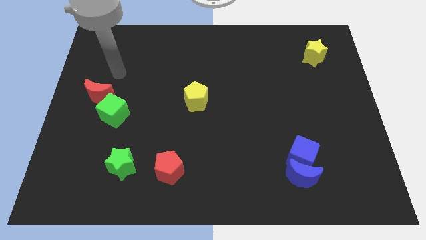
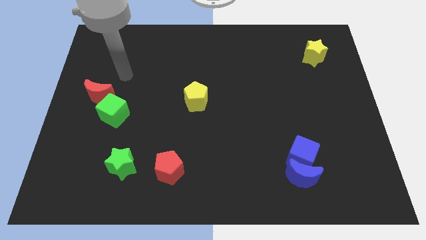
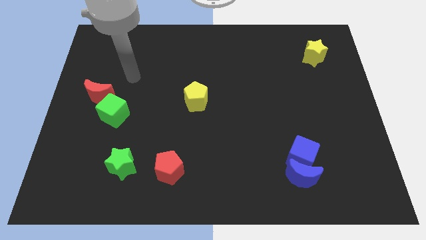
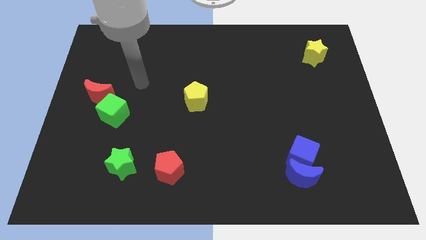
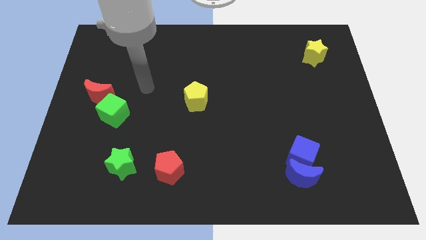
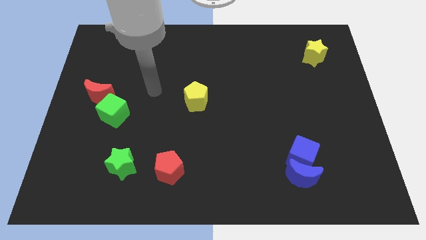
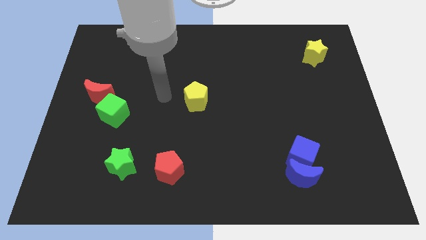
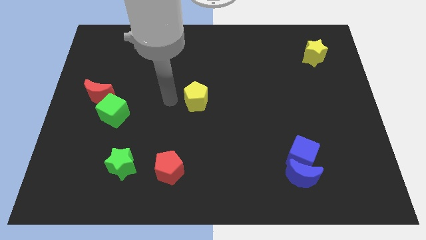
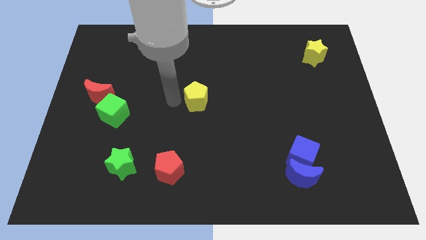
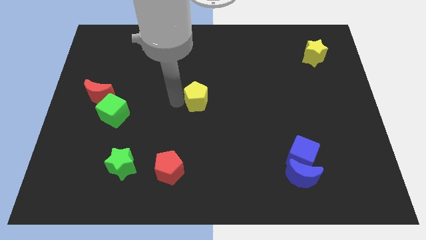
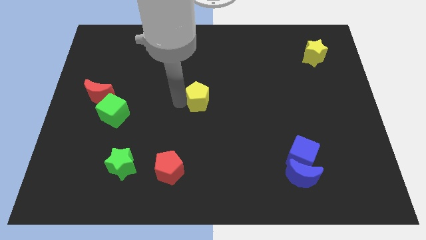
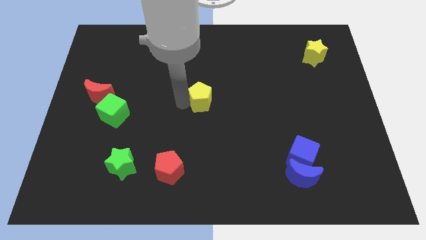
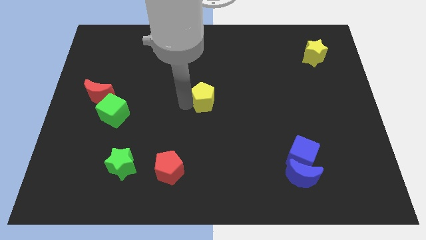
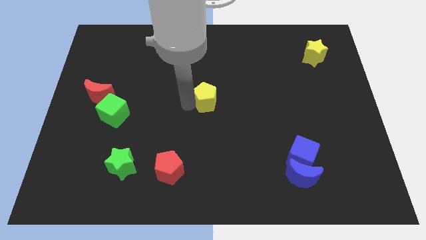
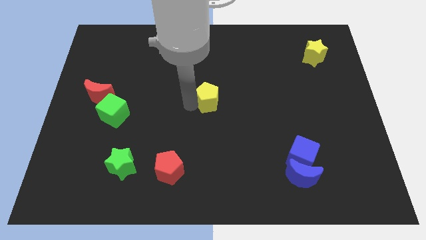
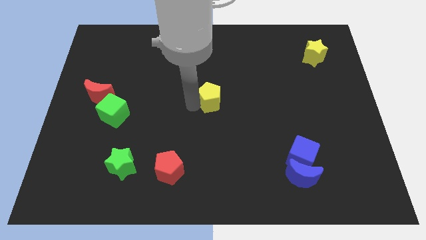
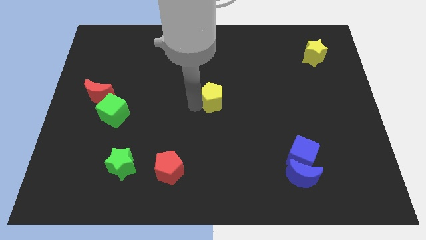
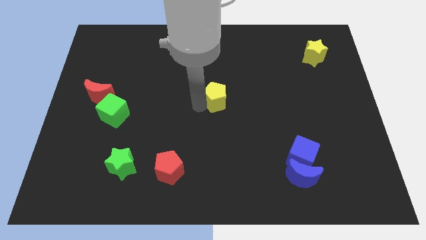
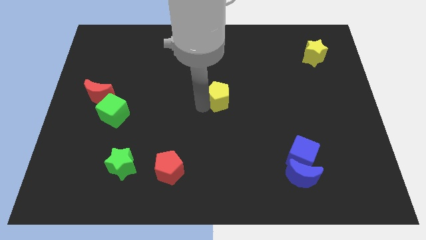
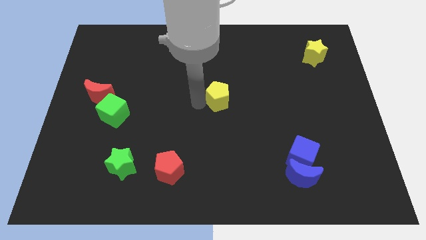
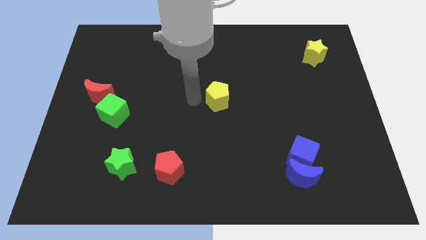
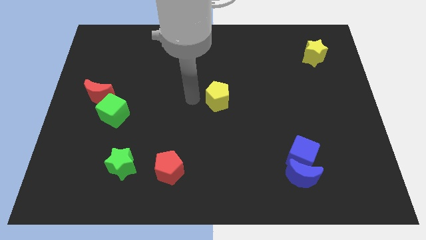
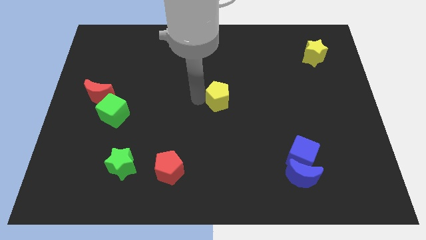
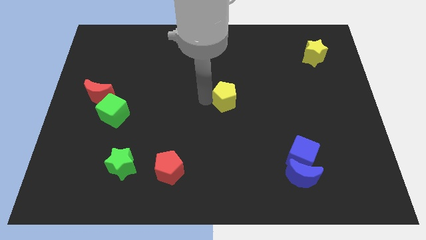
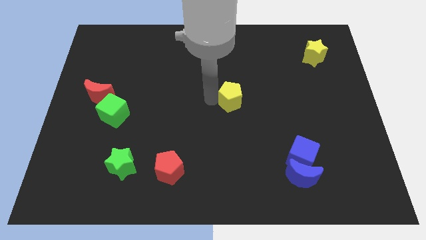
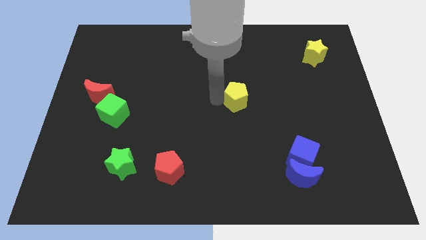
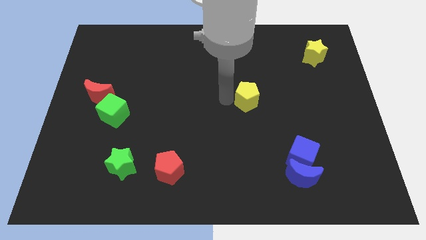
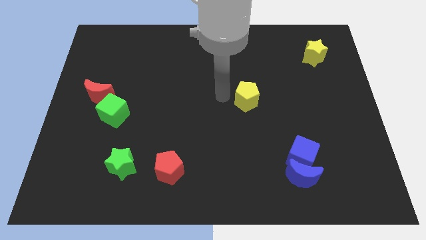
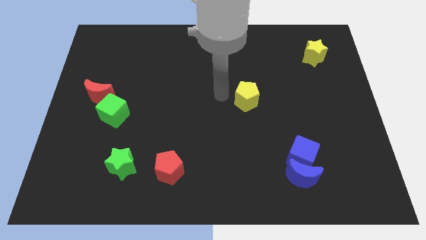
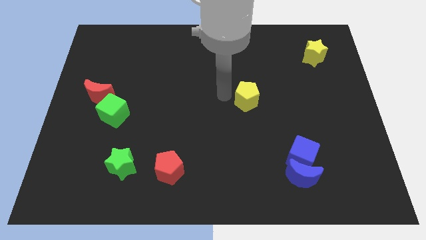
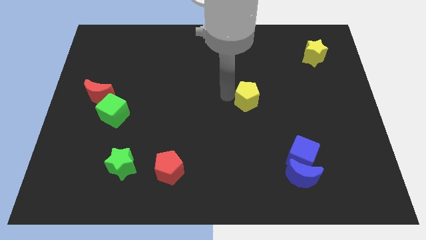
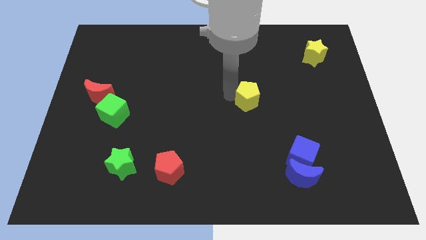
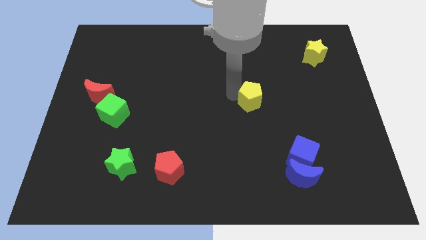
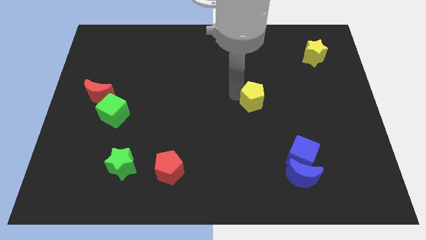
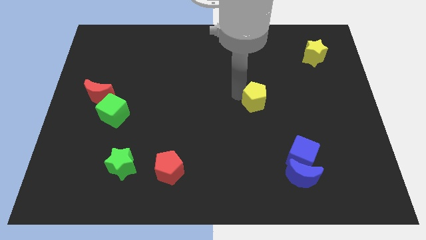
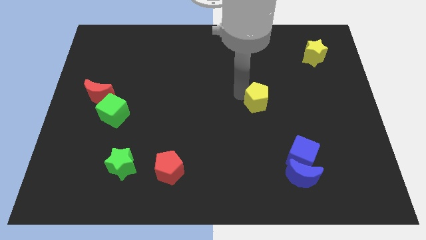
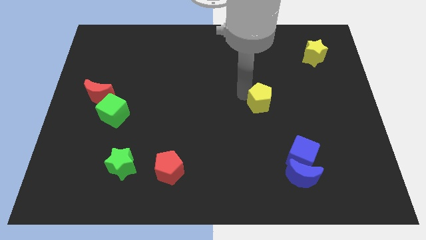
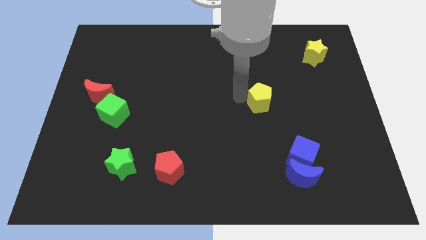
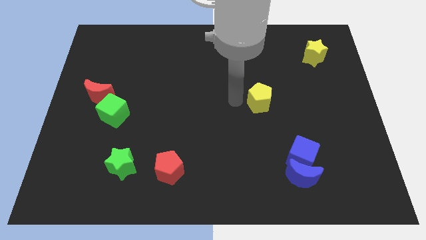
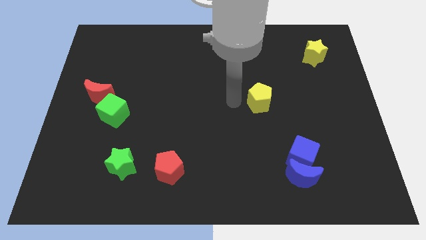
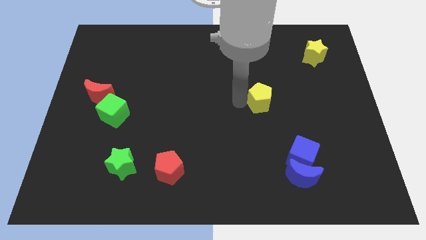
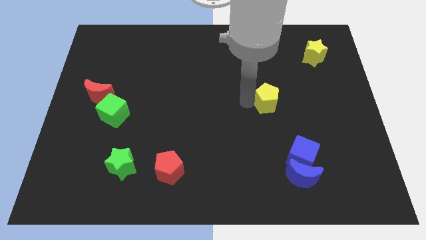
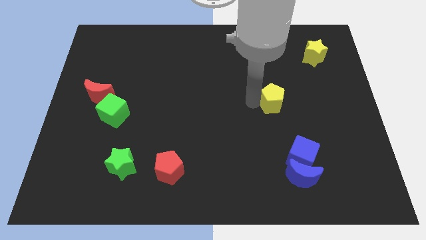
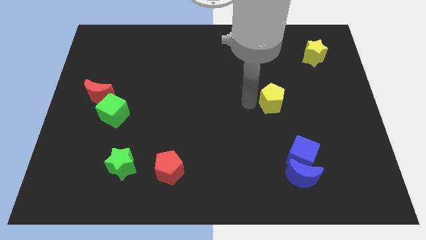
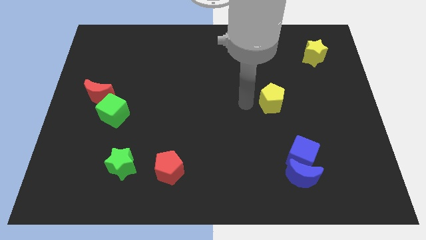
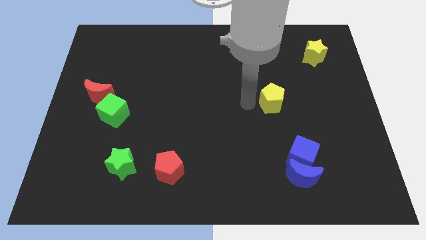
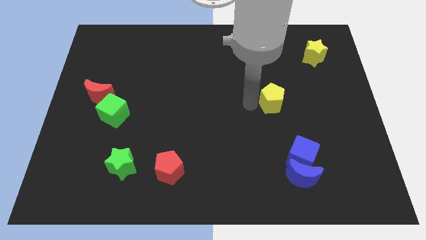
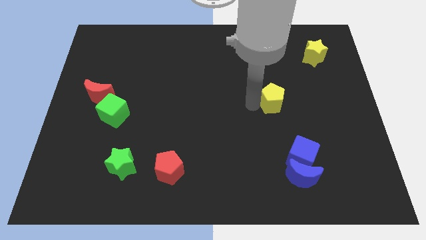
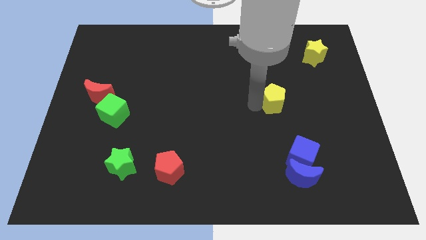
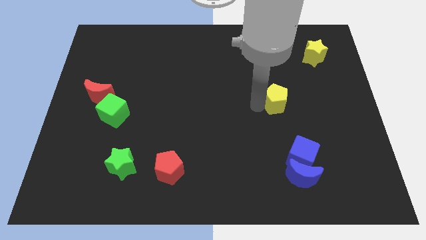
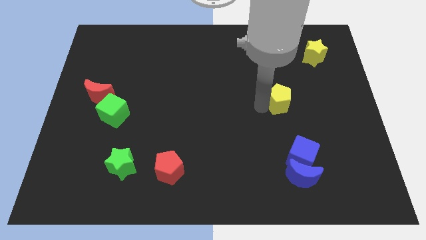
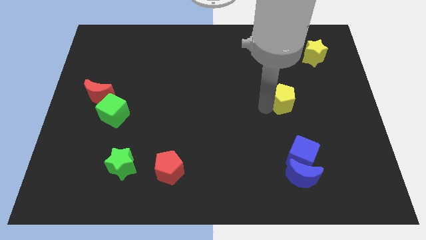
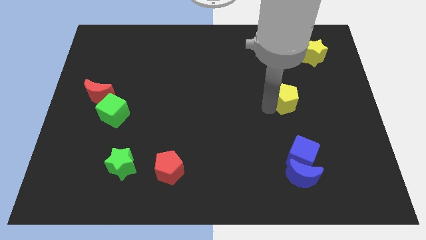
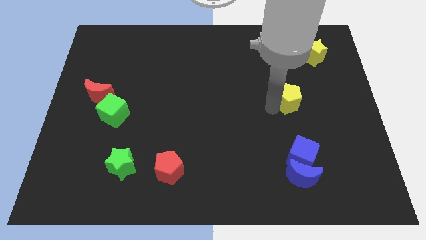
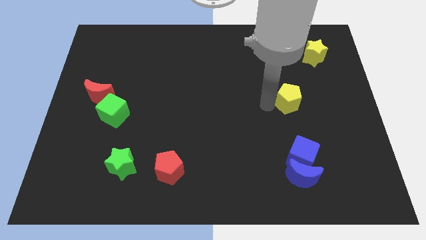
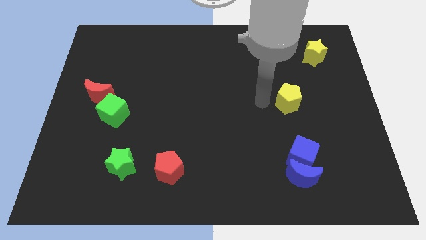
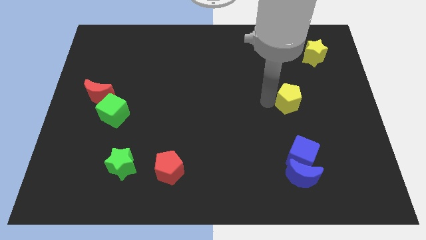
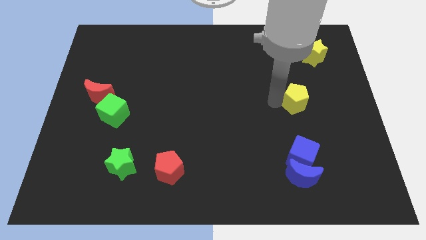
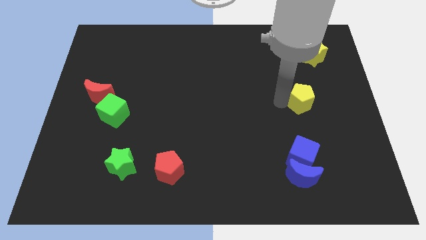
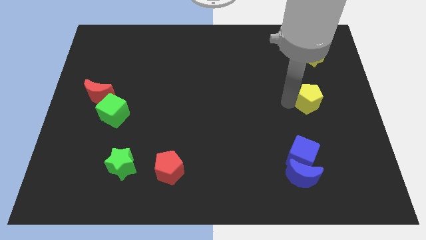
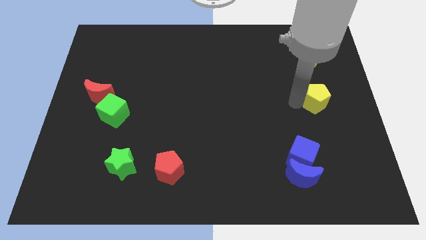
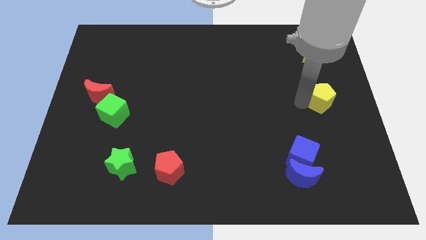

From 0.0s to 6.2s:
put the yellow pentagon to the right side of the board
